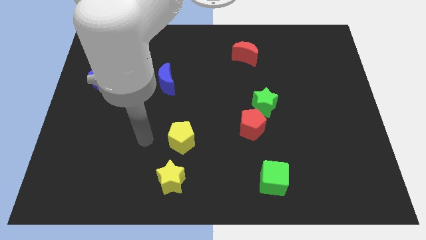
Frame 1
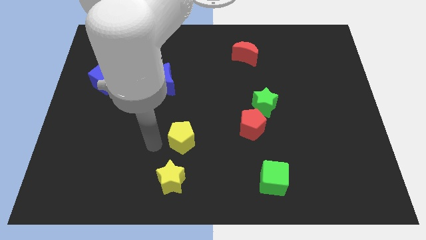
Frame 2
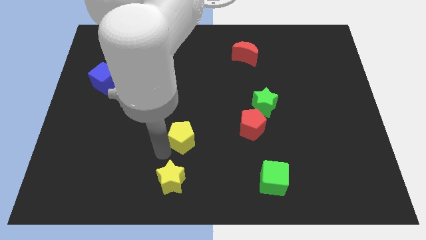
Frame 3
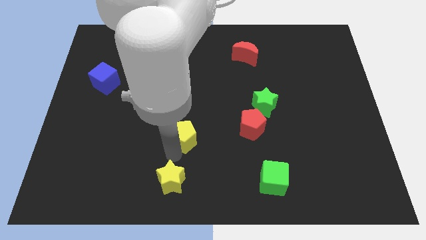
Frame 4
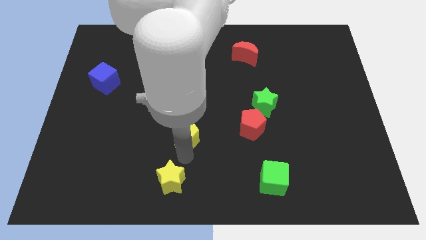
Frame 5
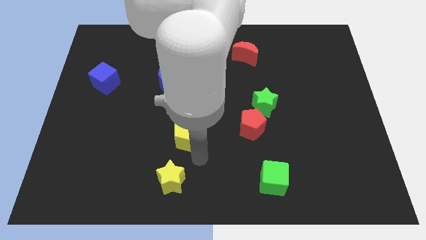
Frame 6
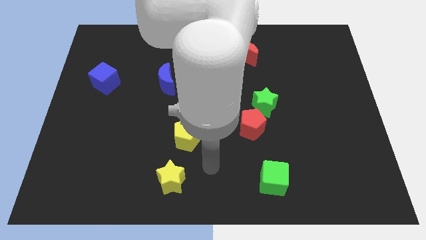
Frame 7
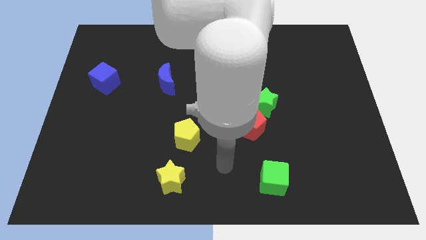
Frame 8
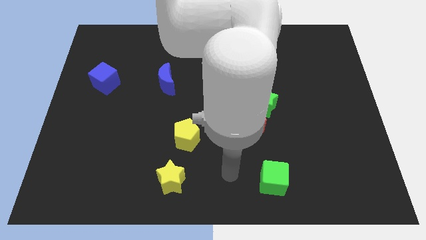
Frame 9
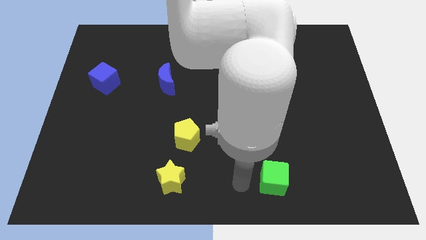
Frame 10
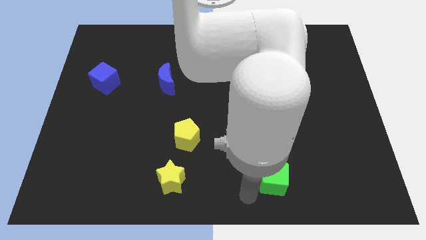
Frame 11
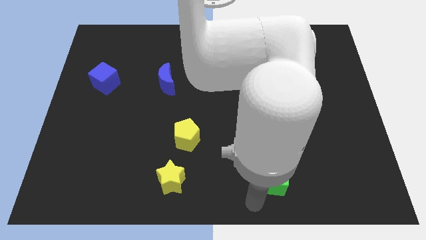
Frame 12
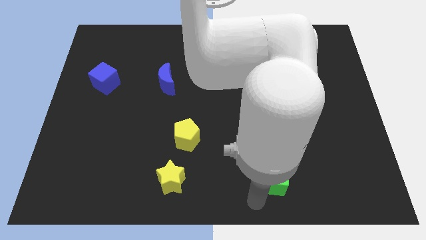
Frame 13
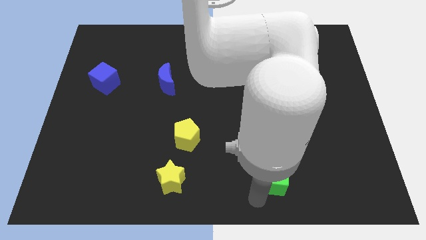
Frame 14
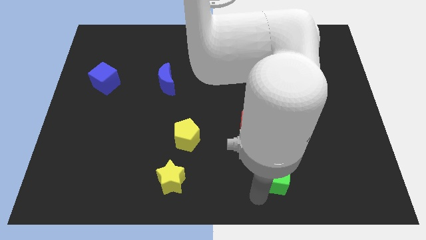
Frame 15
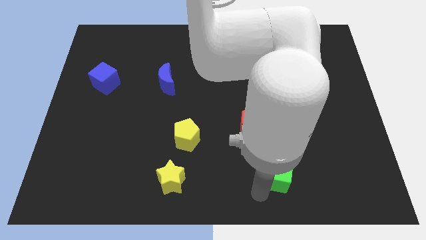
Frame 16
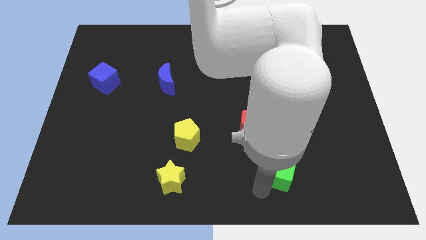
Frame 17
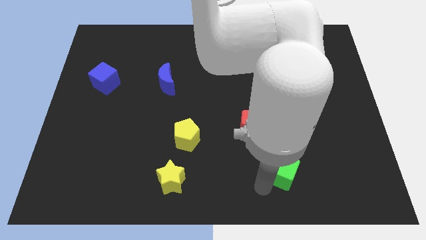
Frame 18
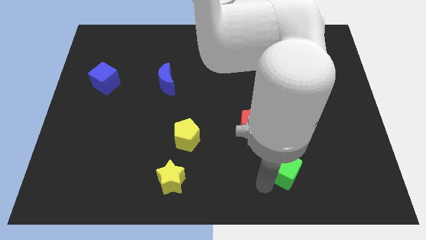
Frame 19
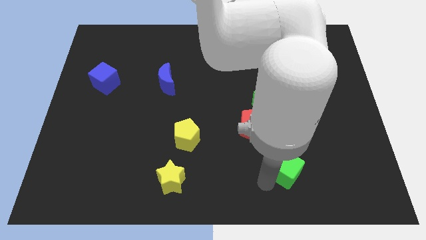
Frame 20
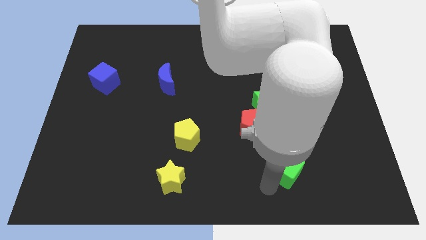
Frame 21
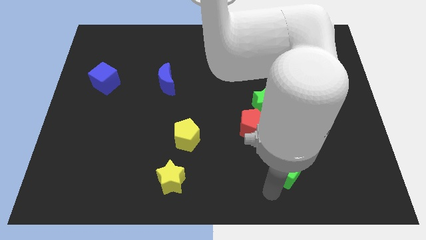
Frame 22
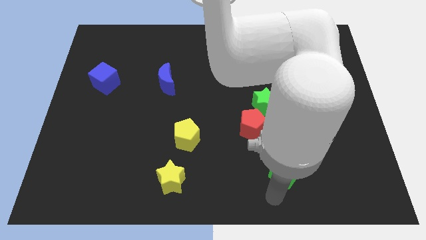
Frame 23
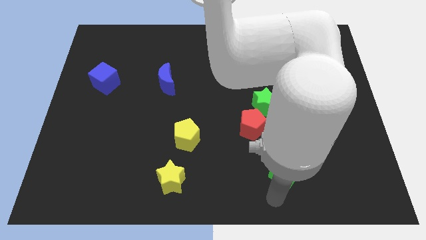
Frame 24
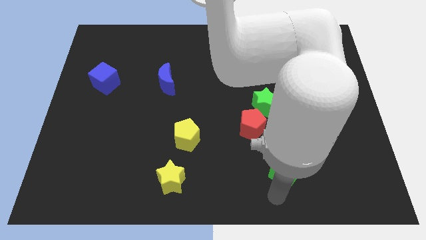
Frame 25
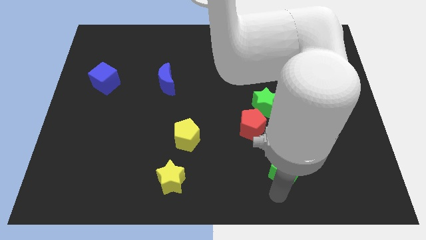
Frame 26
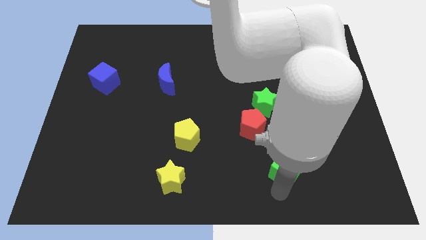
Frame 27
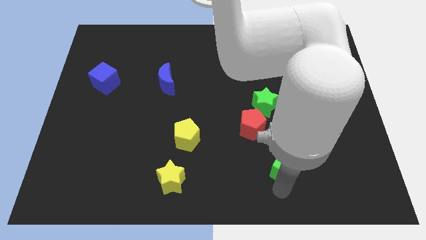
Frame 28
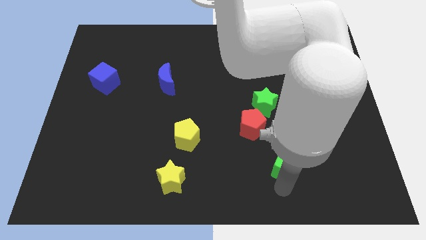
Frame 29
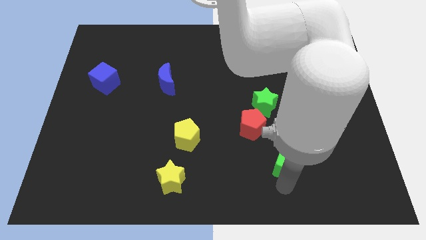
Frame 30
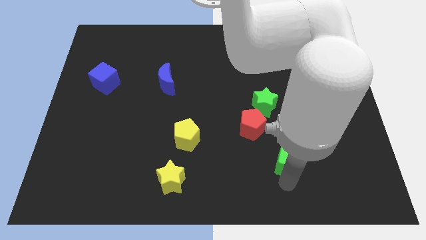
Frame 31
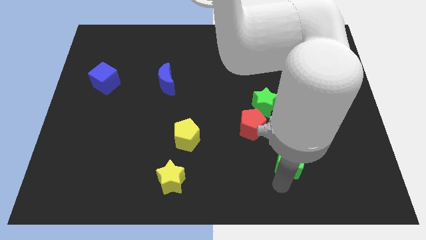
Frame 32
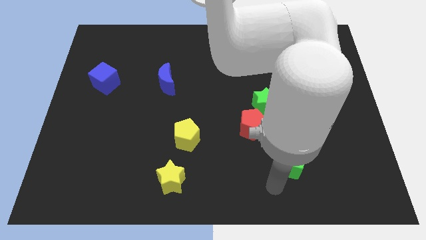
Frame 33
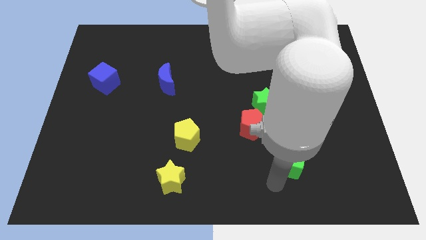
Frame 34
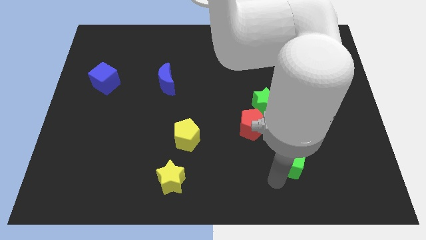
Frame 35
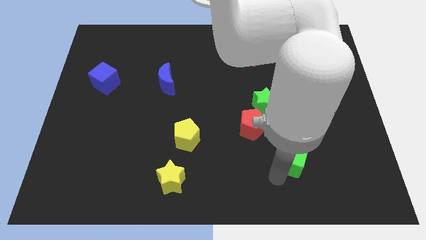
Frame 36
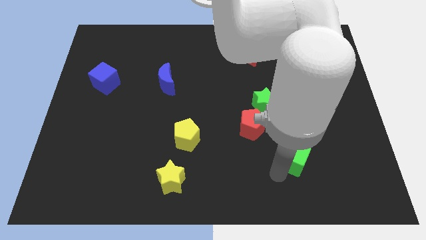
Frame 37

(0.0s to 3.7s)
push the green cube up and to the right a little bit

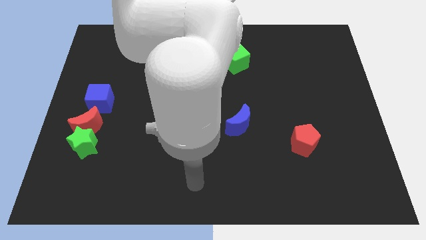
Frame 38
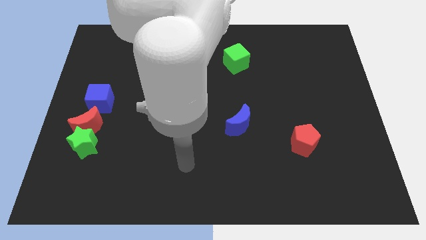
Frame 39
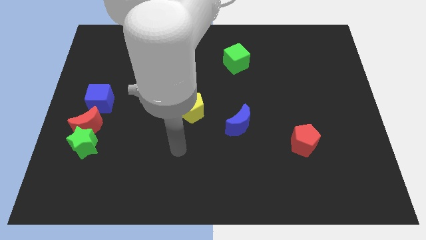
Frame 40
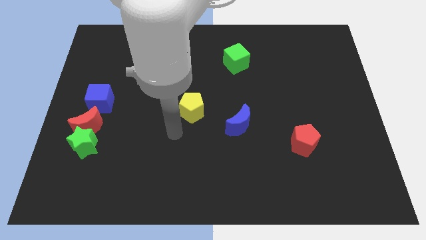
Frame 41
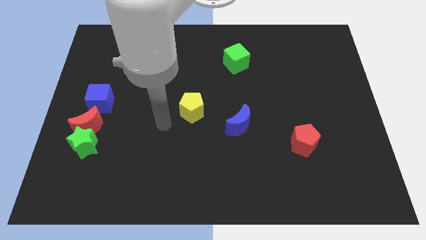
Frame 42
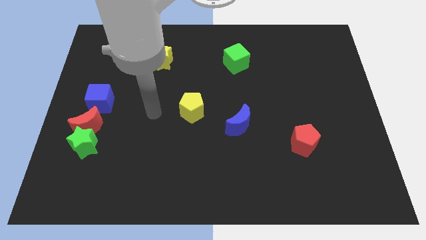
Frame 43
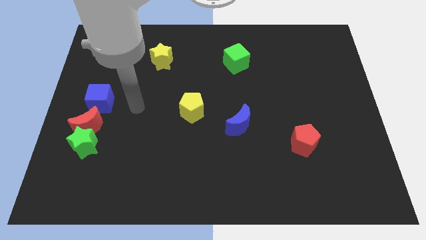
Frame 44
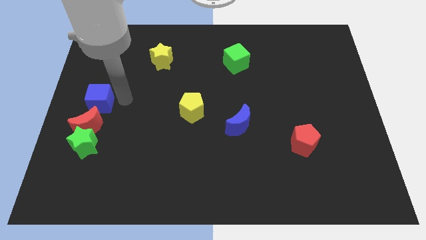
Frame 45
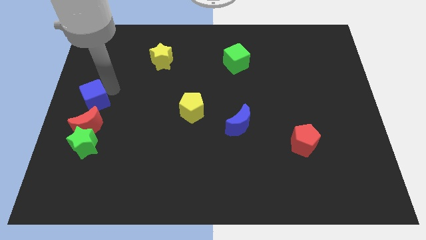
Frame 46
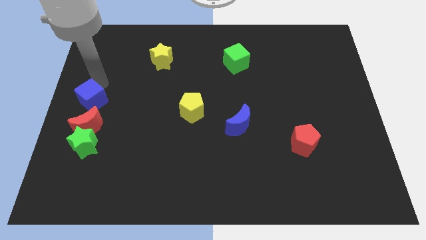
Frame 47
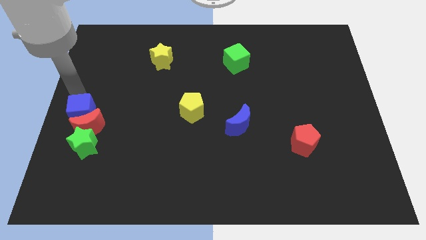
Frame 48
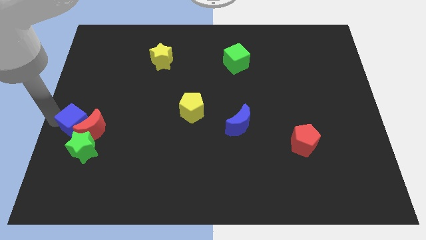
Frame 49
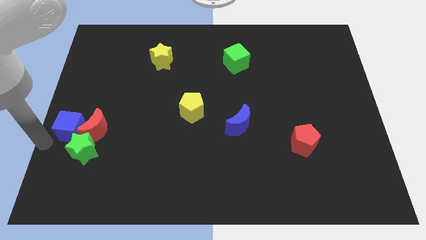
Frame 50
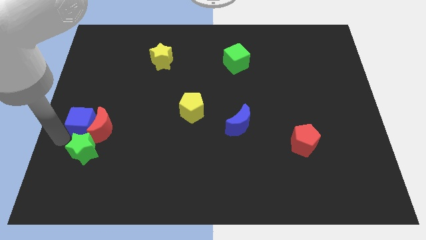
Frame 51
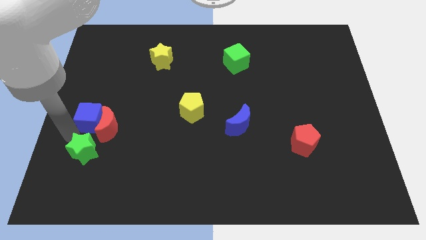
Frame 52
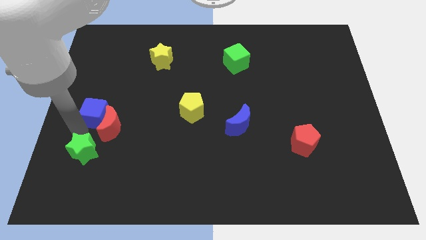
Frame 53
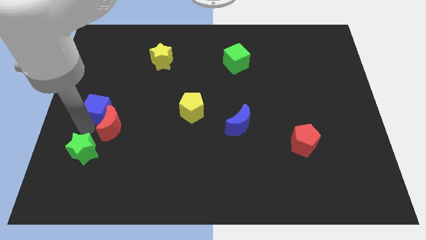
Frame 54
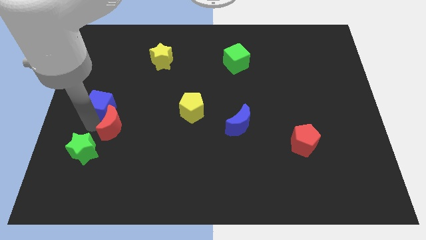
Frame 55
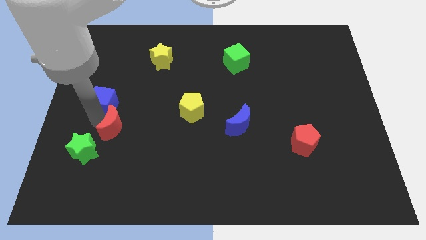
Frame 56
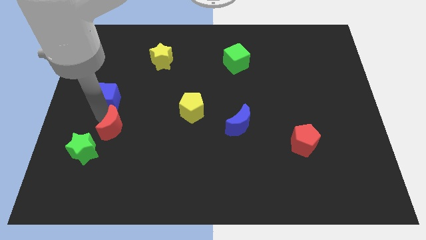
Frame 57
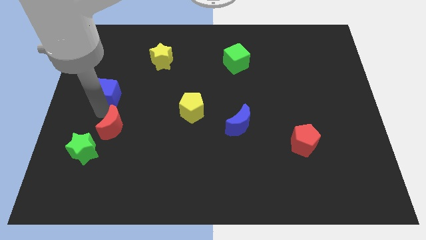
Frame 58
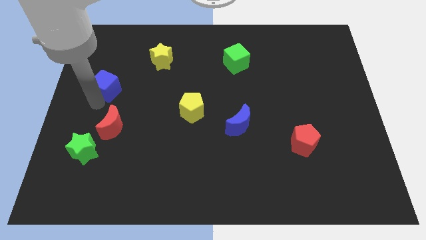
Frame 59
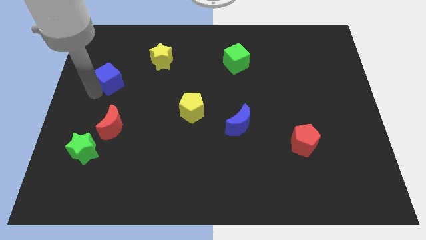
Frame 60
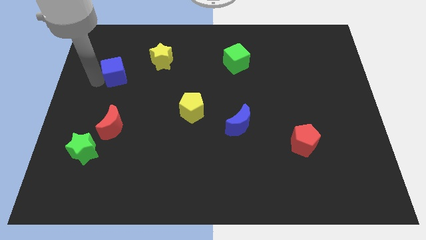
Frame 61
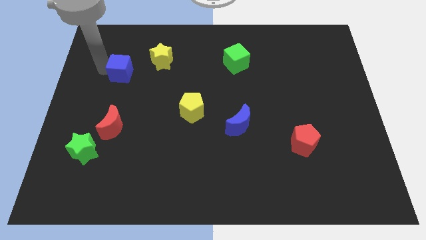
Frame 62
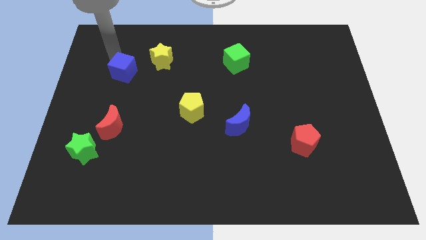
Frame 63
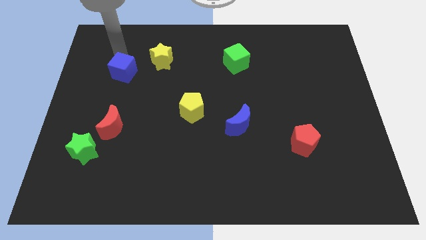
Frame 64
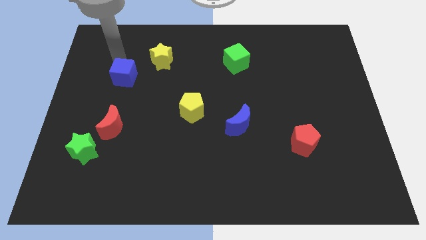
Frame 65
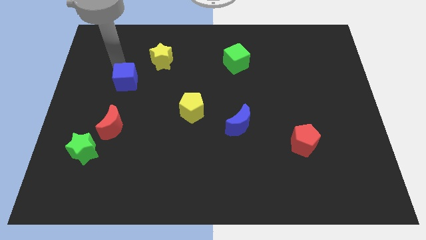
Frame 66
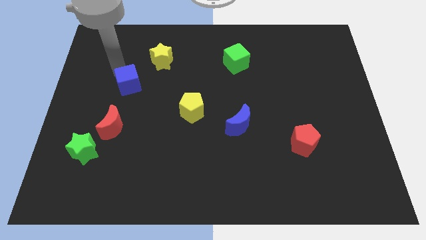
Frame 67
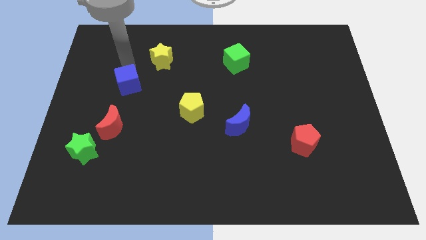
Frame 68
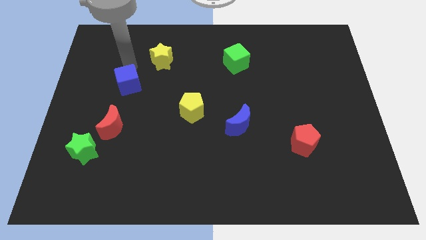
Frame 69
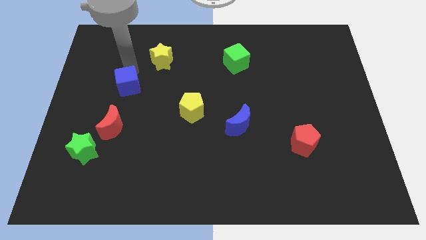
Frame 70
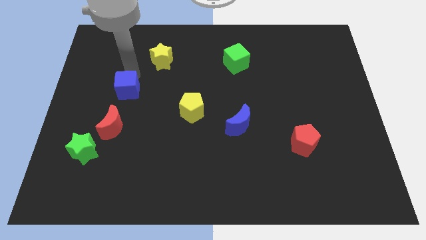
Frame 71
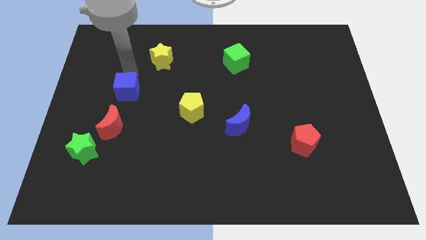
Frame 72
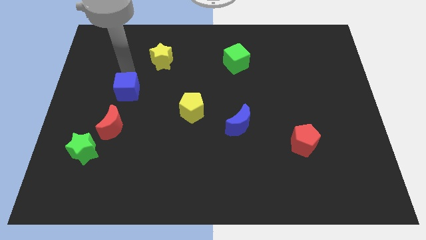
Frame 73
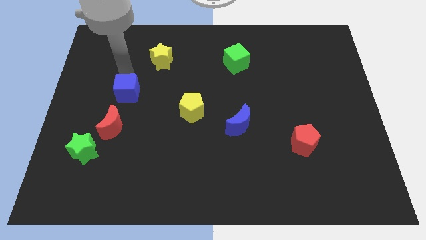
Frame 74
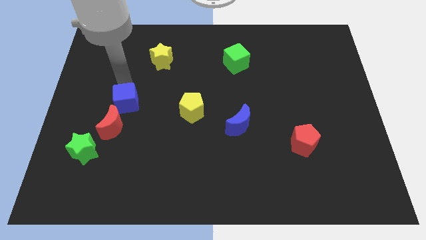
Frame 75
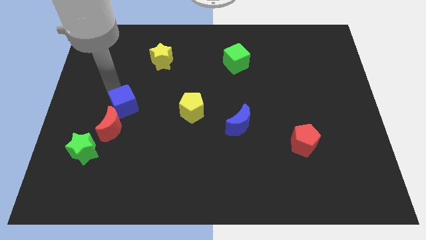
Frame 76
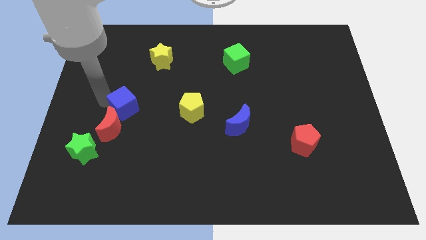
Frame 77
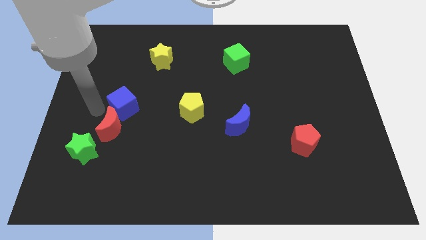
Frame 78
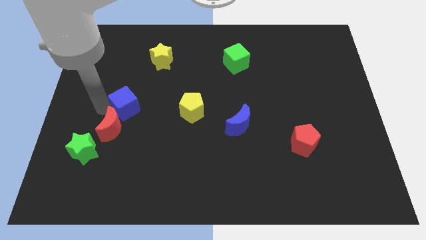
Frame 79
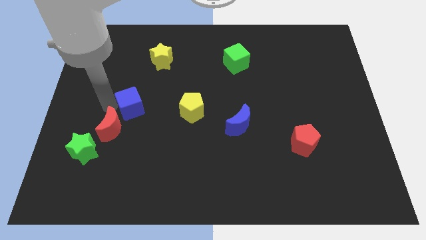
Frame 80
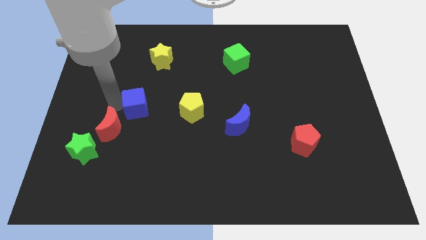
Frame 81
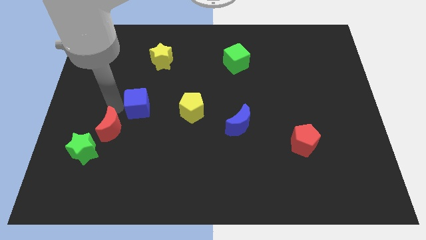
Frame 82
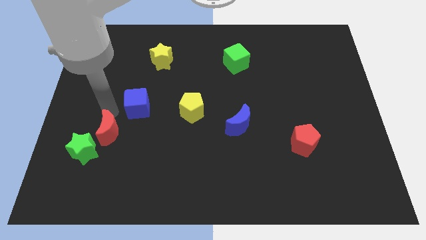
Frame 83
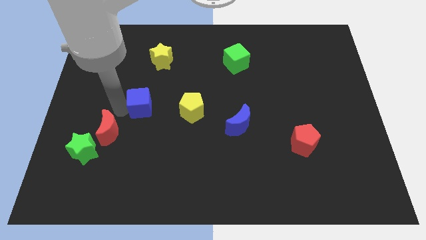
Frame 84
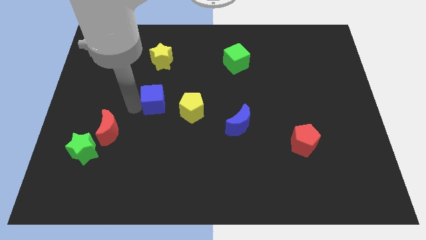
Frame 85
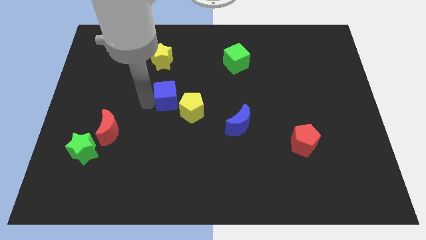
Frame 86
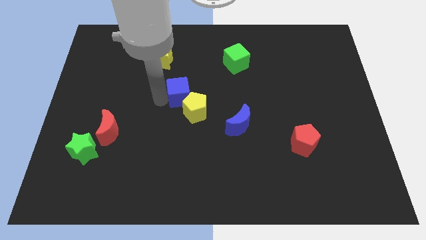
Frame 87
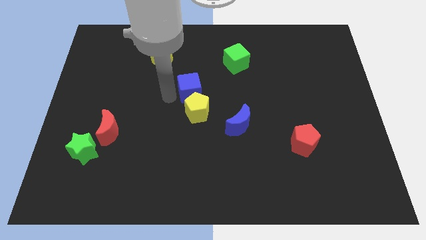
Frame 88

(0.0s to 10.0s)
slide the blue cube to the right
